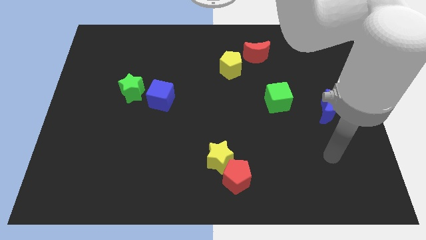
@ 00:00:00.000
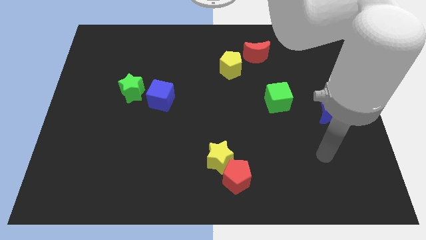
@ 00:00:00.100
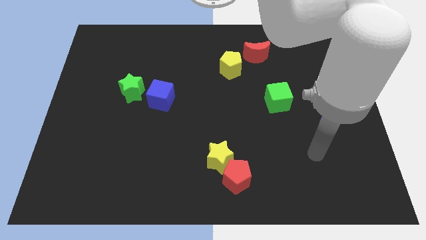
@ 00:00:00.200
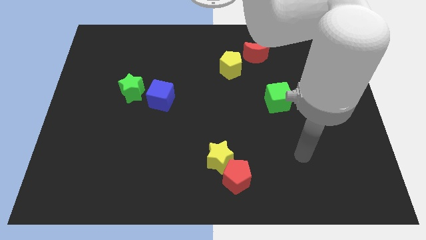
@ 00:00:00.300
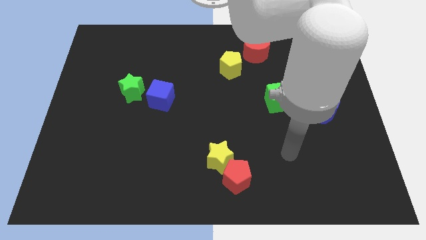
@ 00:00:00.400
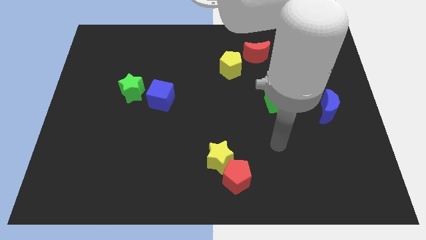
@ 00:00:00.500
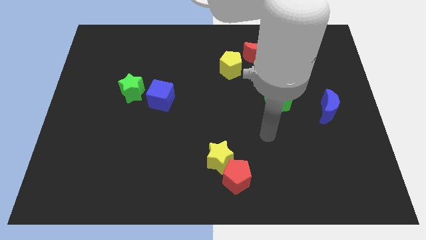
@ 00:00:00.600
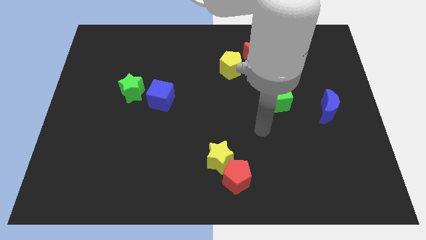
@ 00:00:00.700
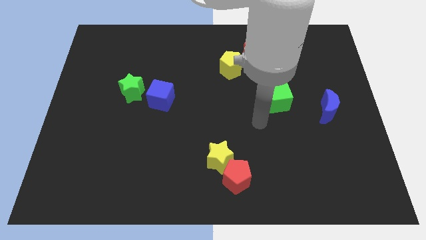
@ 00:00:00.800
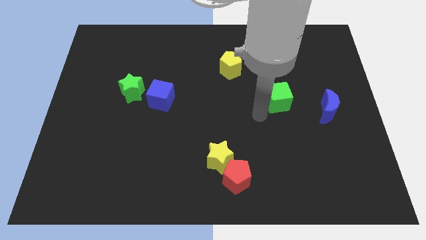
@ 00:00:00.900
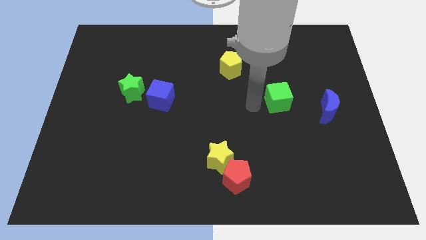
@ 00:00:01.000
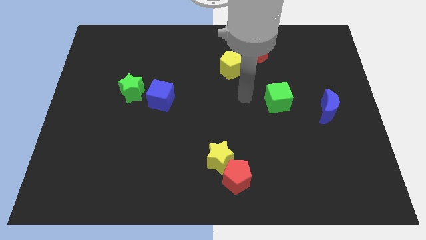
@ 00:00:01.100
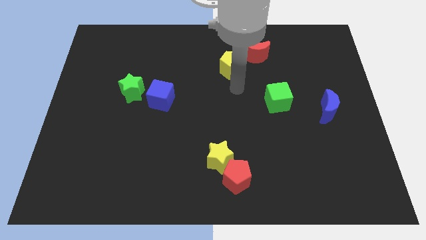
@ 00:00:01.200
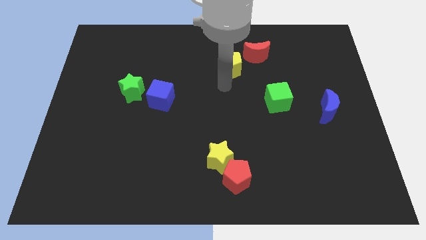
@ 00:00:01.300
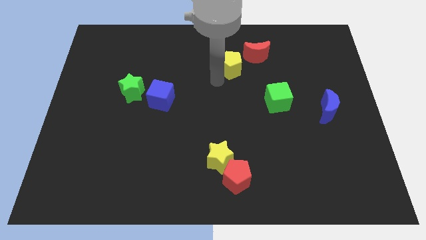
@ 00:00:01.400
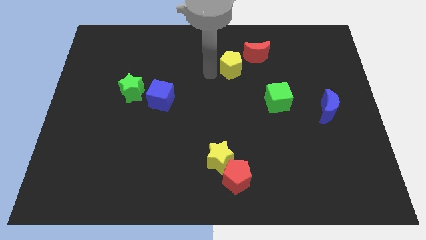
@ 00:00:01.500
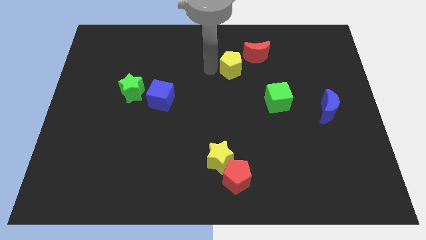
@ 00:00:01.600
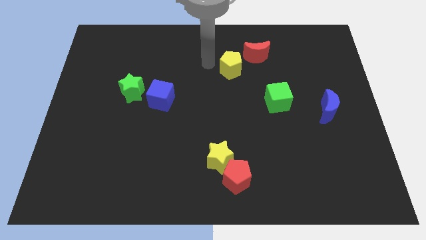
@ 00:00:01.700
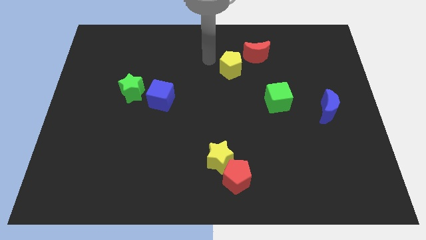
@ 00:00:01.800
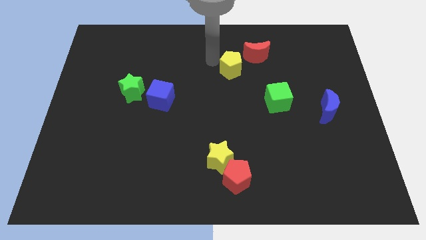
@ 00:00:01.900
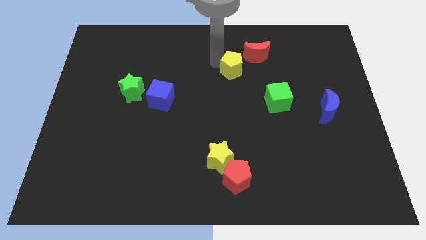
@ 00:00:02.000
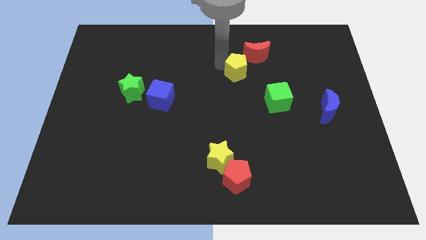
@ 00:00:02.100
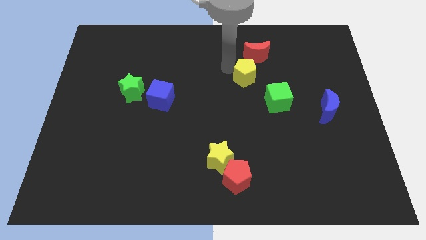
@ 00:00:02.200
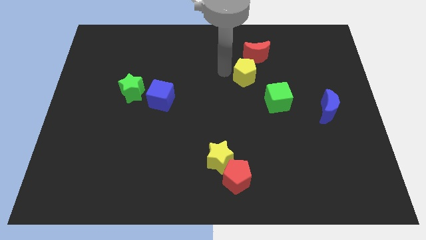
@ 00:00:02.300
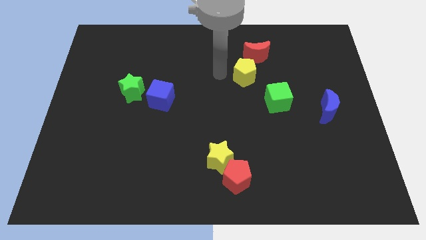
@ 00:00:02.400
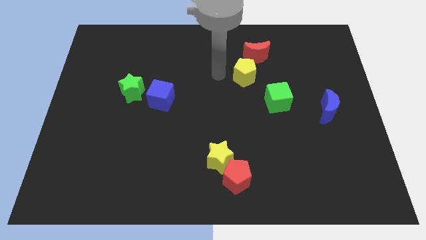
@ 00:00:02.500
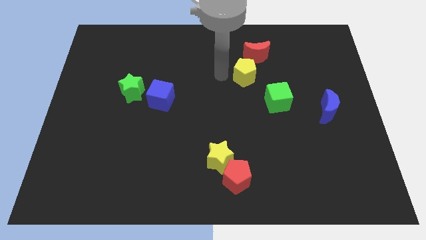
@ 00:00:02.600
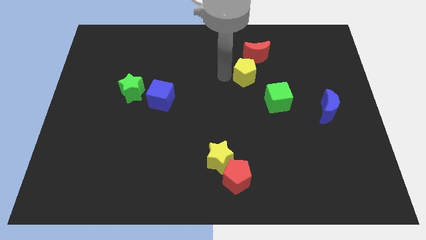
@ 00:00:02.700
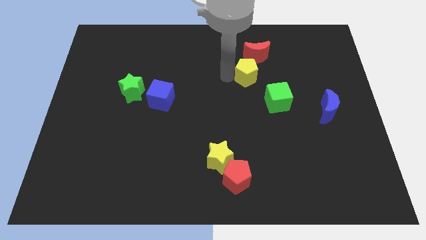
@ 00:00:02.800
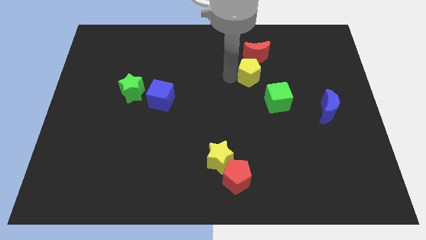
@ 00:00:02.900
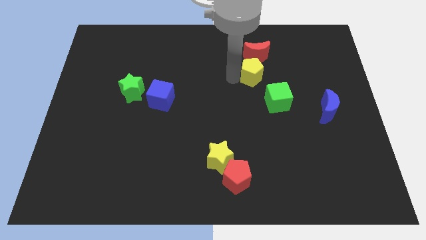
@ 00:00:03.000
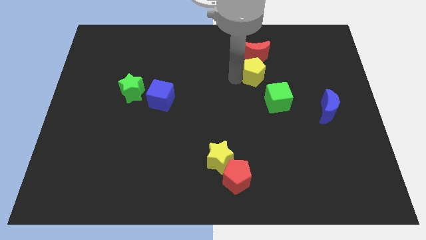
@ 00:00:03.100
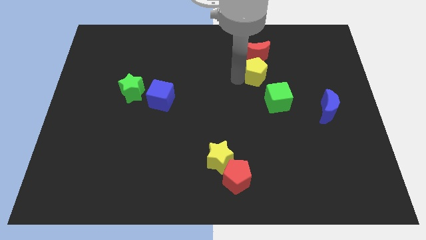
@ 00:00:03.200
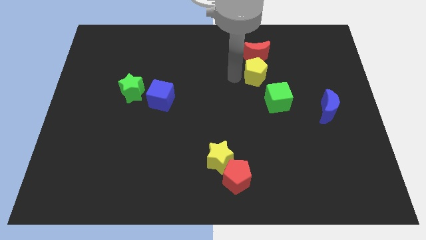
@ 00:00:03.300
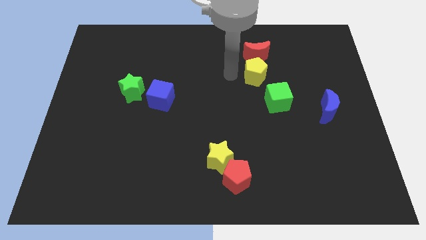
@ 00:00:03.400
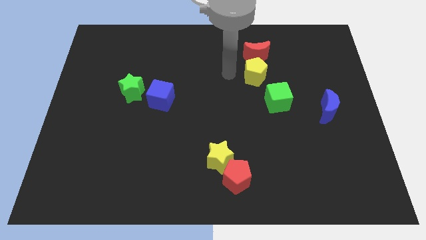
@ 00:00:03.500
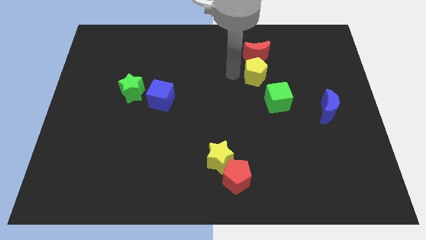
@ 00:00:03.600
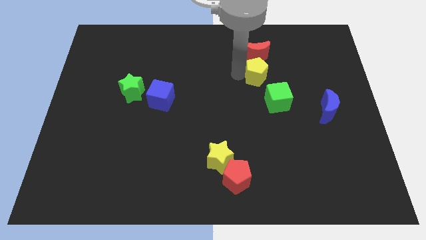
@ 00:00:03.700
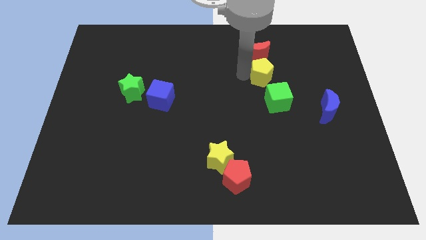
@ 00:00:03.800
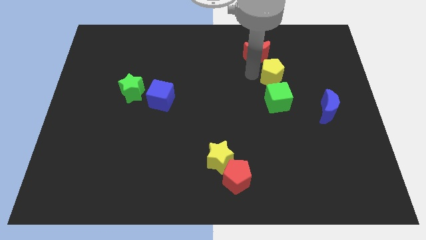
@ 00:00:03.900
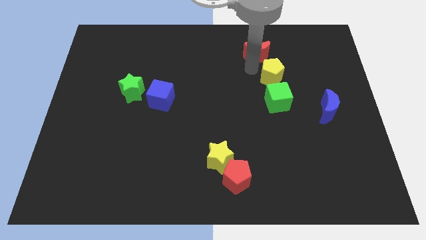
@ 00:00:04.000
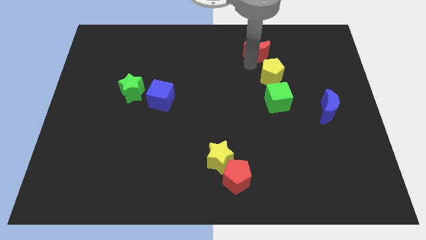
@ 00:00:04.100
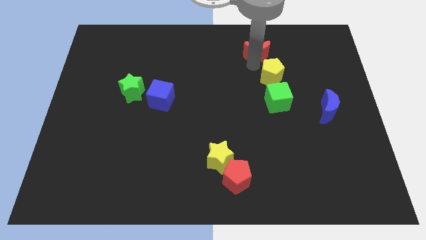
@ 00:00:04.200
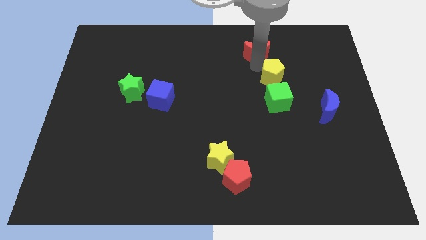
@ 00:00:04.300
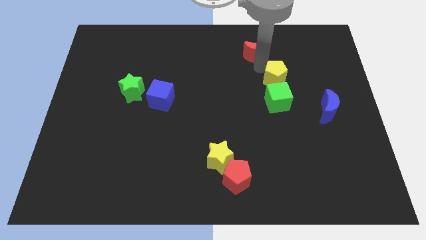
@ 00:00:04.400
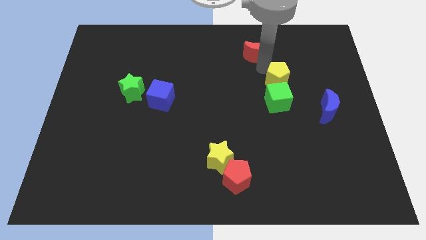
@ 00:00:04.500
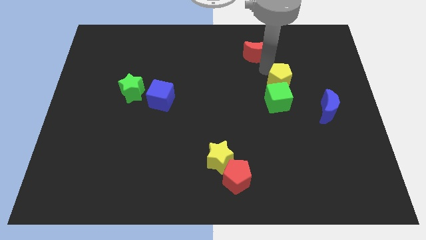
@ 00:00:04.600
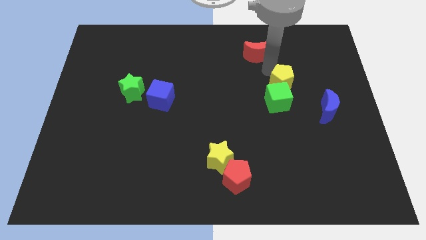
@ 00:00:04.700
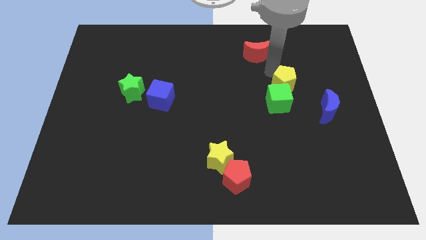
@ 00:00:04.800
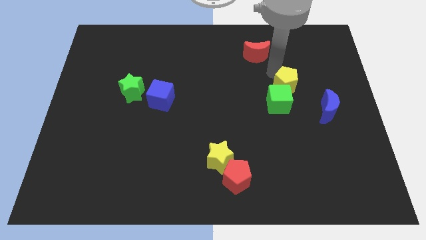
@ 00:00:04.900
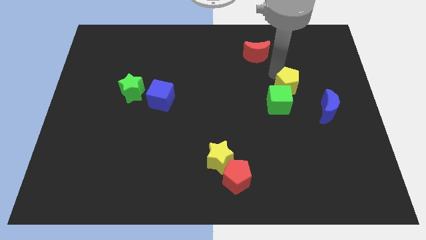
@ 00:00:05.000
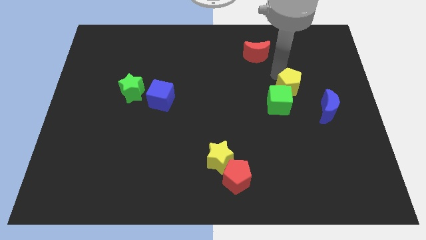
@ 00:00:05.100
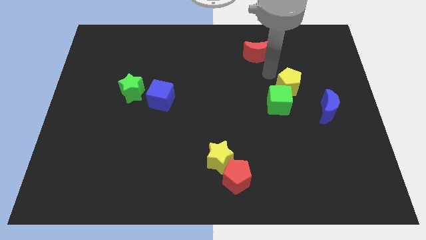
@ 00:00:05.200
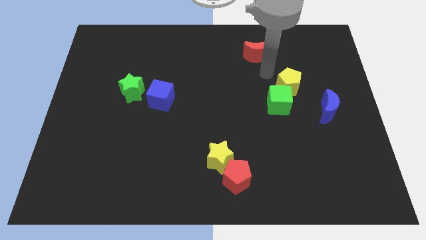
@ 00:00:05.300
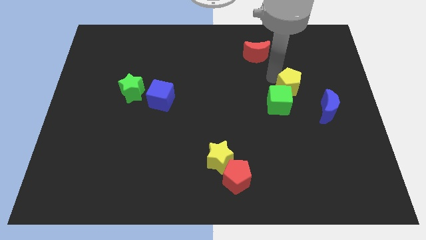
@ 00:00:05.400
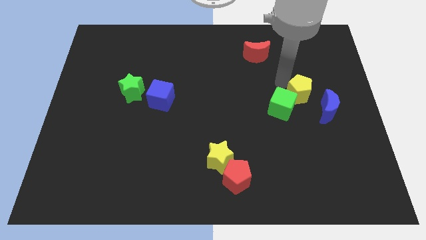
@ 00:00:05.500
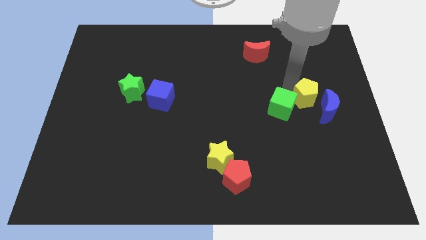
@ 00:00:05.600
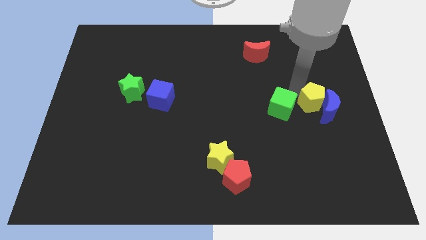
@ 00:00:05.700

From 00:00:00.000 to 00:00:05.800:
put the yellow pentagon close to the blue moon
